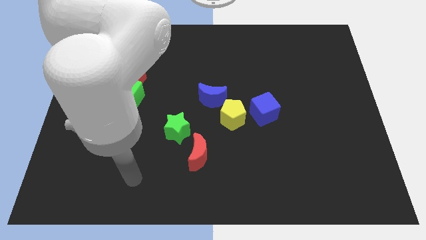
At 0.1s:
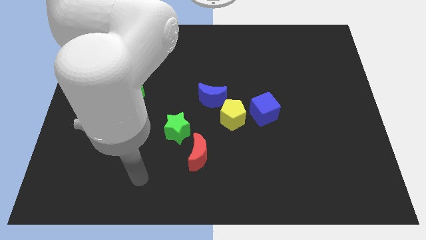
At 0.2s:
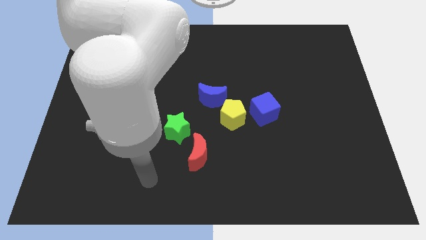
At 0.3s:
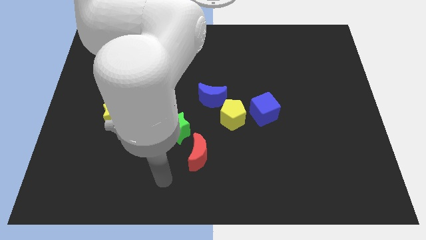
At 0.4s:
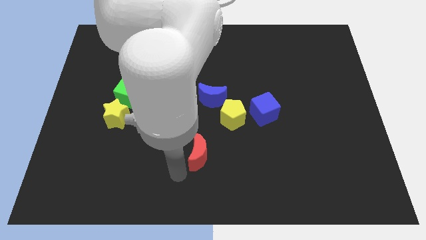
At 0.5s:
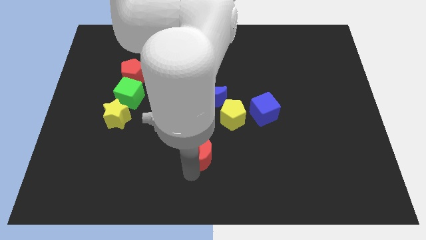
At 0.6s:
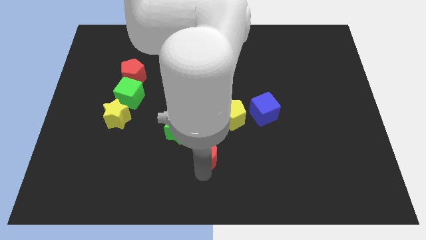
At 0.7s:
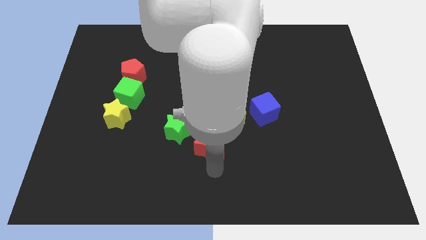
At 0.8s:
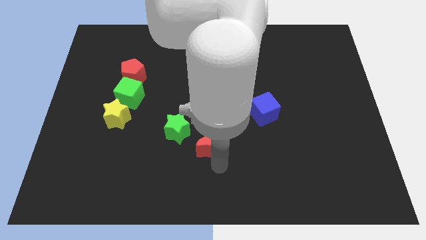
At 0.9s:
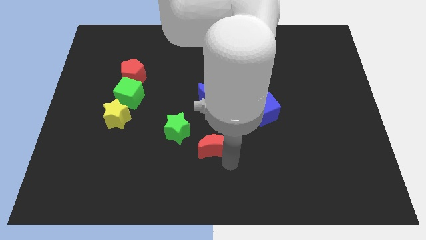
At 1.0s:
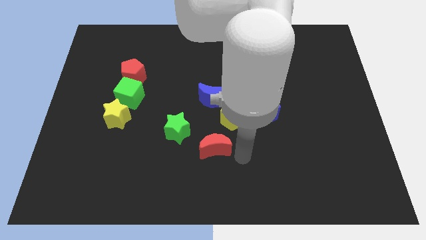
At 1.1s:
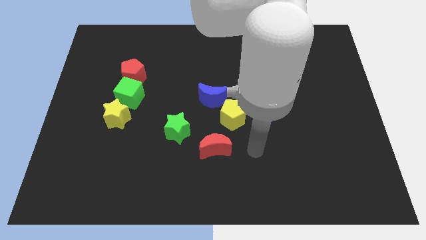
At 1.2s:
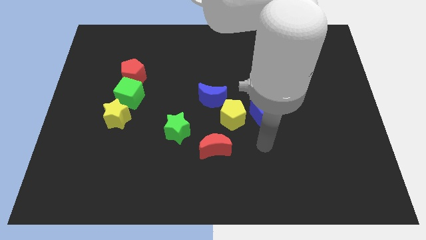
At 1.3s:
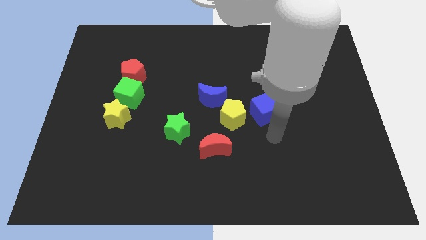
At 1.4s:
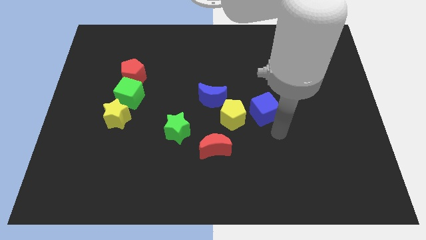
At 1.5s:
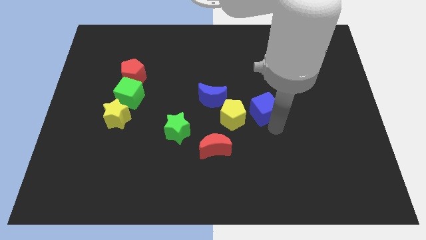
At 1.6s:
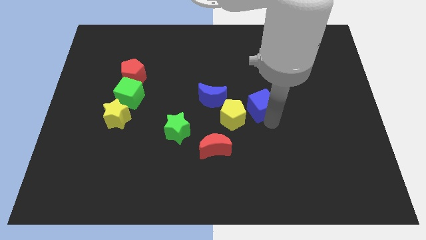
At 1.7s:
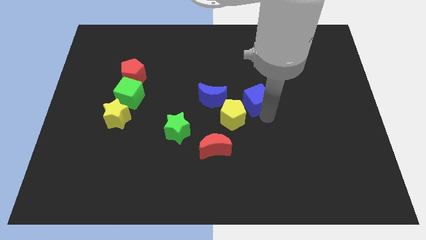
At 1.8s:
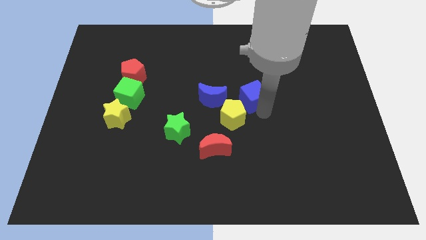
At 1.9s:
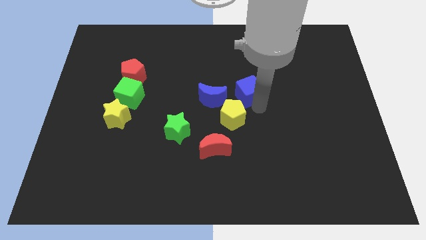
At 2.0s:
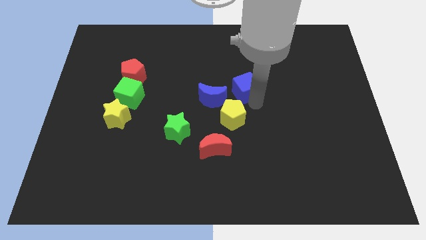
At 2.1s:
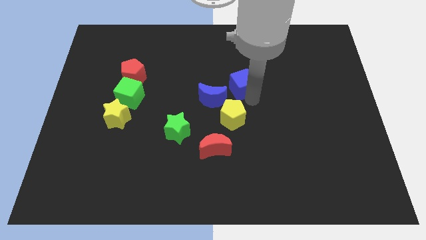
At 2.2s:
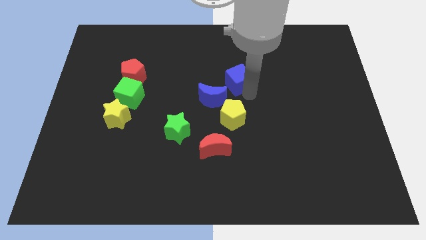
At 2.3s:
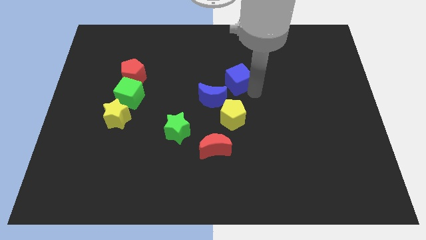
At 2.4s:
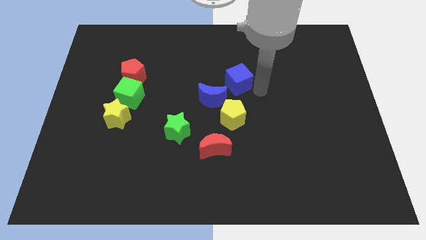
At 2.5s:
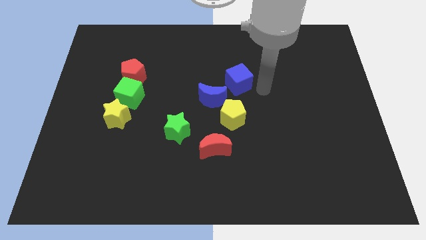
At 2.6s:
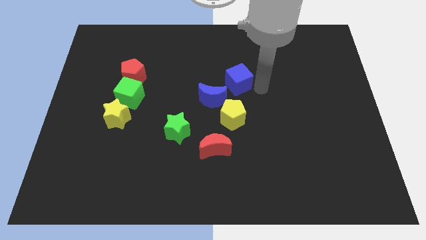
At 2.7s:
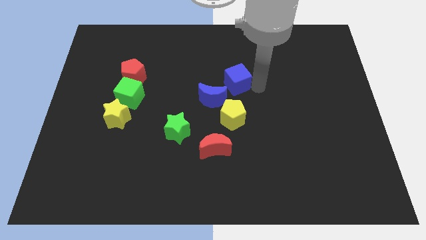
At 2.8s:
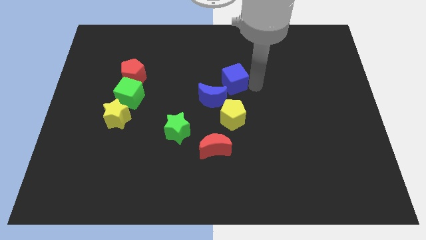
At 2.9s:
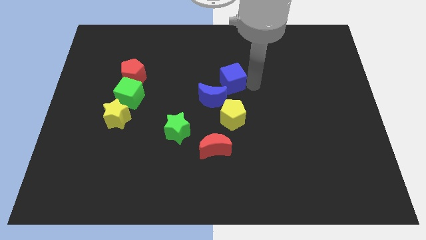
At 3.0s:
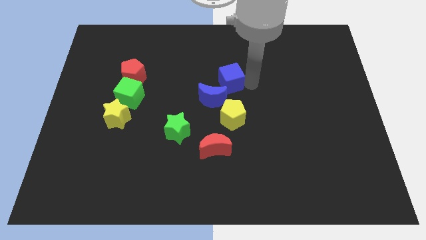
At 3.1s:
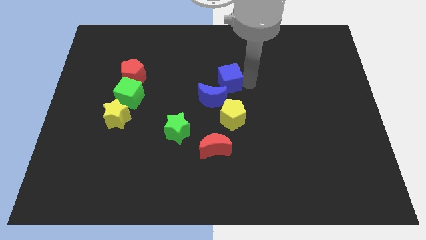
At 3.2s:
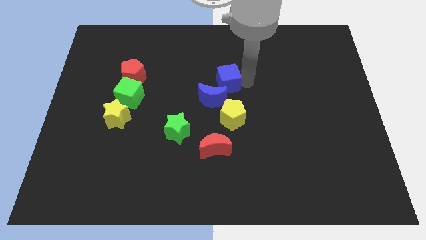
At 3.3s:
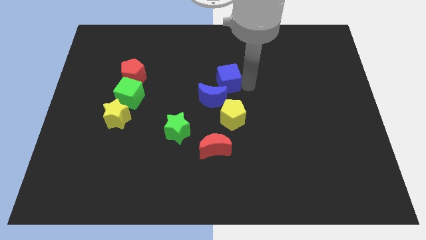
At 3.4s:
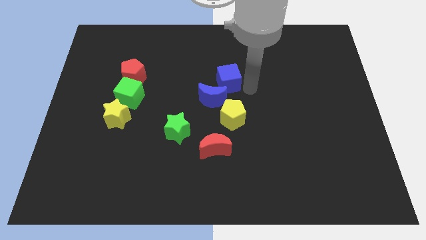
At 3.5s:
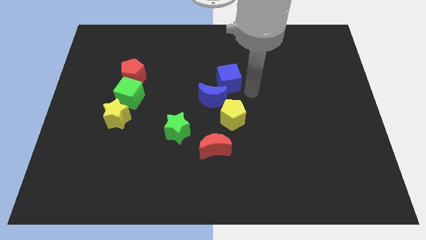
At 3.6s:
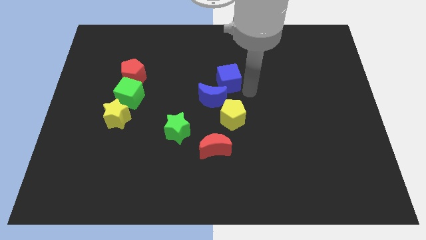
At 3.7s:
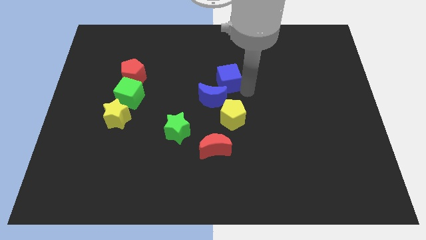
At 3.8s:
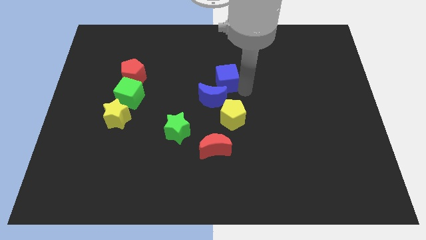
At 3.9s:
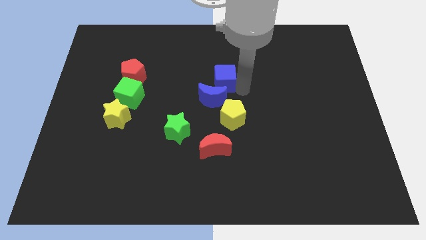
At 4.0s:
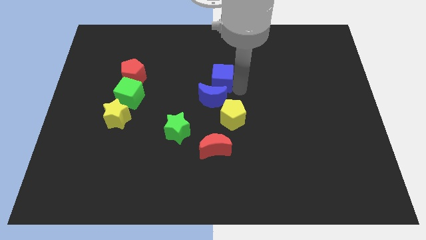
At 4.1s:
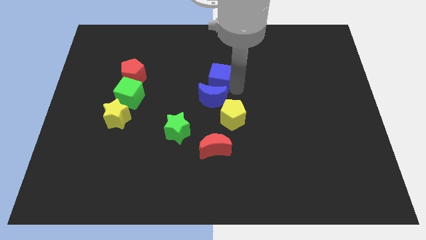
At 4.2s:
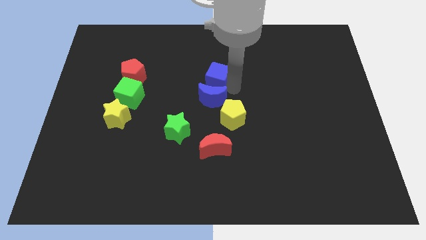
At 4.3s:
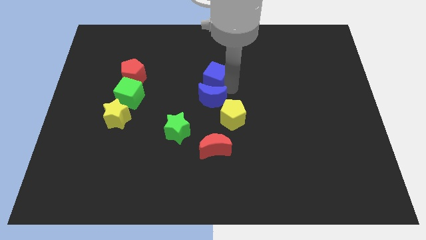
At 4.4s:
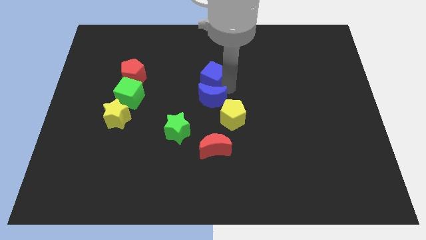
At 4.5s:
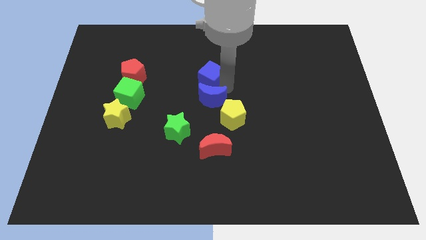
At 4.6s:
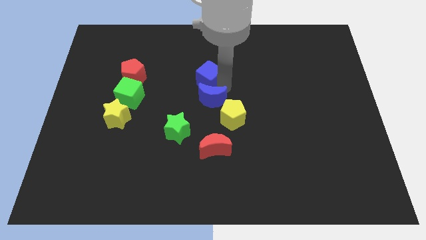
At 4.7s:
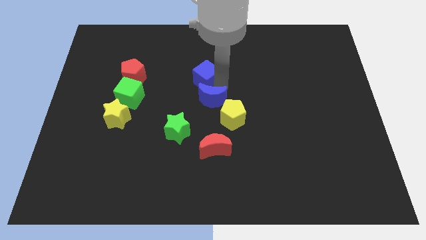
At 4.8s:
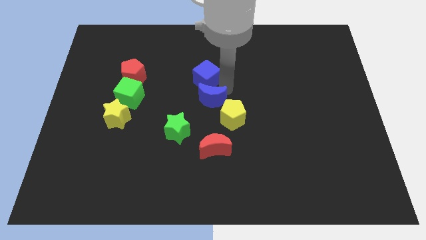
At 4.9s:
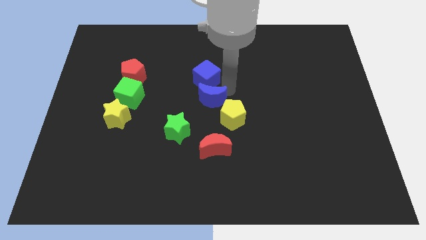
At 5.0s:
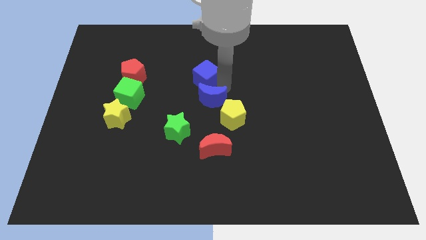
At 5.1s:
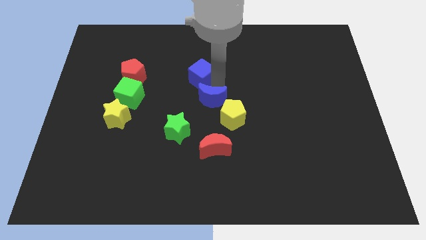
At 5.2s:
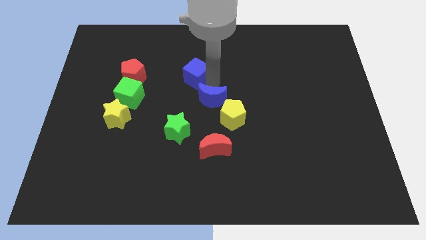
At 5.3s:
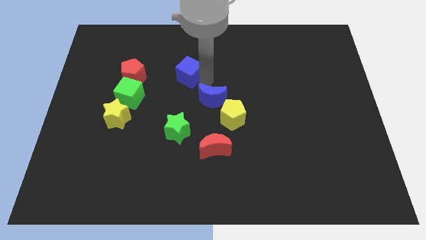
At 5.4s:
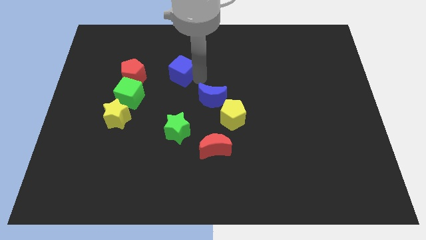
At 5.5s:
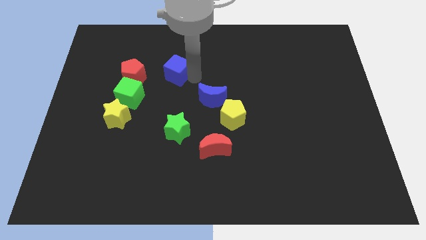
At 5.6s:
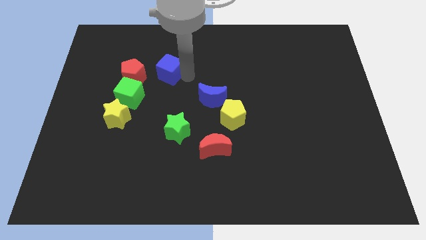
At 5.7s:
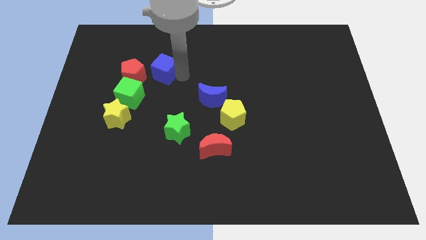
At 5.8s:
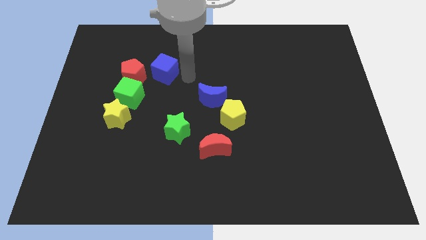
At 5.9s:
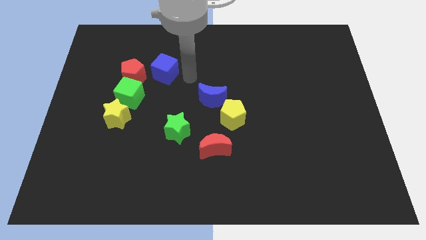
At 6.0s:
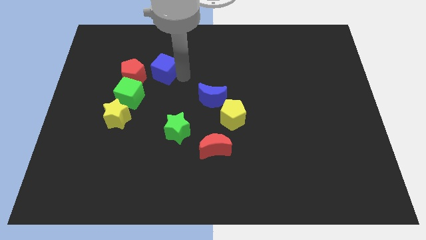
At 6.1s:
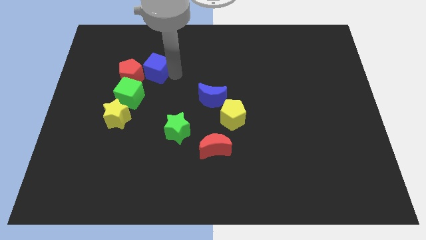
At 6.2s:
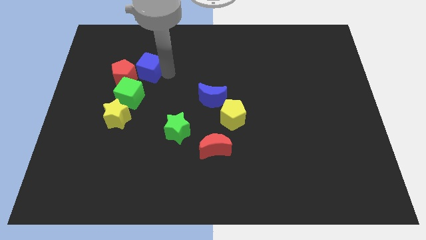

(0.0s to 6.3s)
move the blue cube to the top of the green cube
